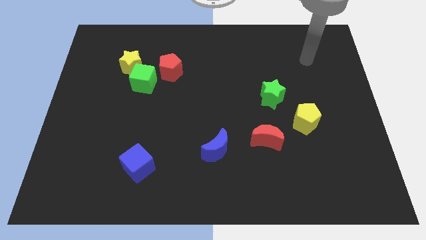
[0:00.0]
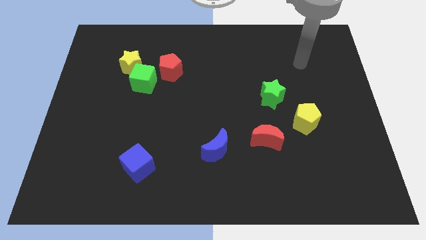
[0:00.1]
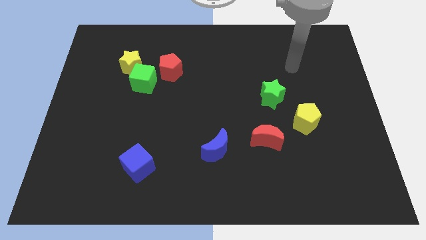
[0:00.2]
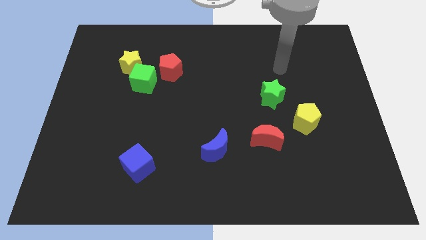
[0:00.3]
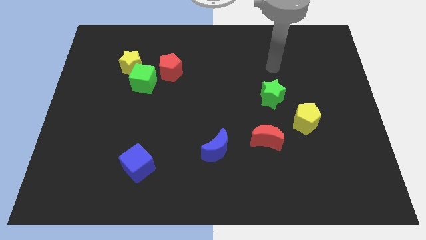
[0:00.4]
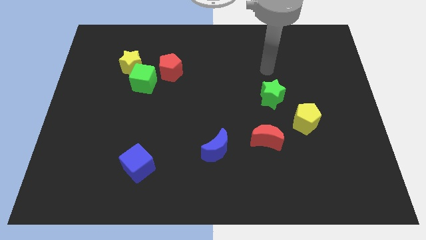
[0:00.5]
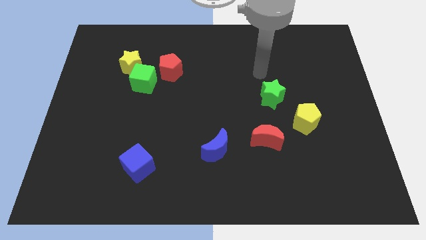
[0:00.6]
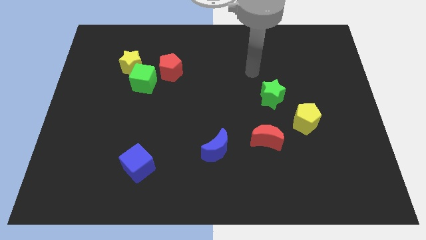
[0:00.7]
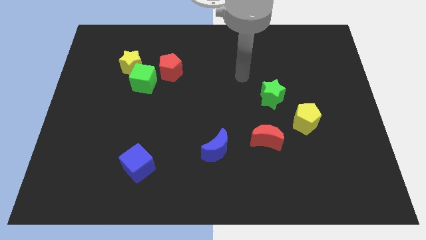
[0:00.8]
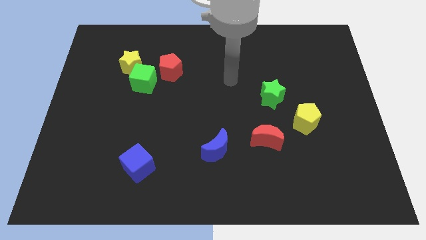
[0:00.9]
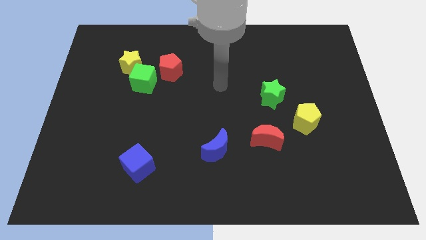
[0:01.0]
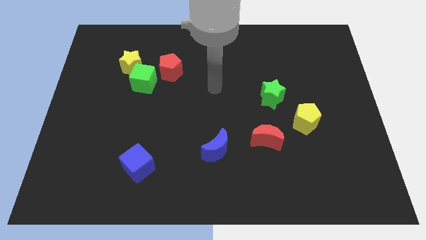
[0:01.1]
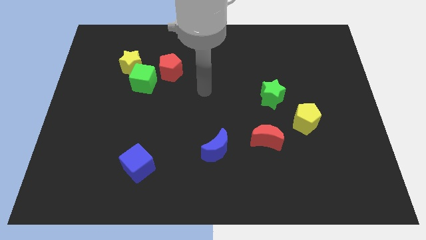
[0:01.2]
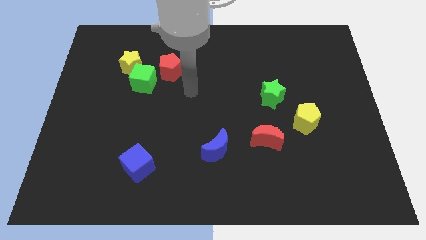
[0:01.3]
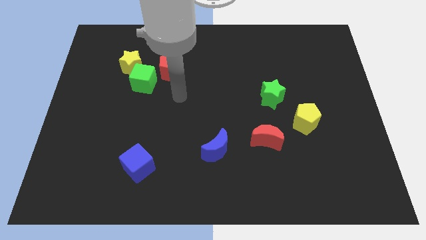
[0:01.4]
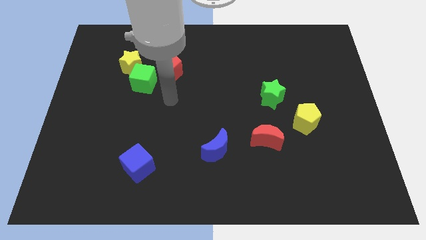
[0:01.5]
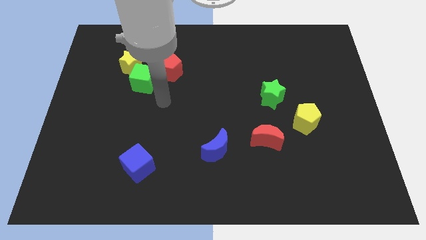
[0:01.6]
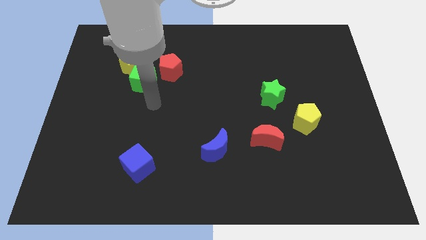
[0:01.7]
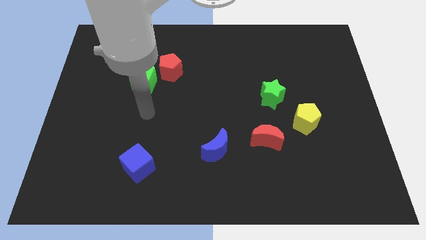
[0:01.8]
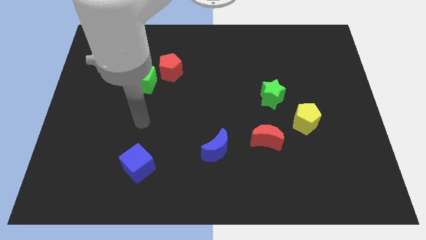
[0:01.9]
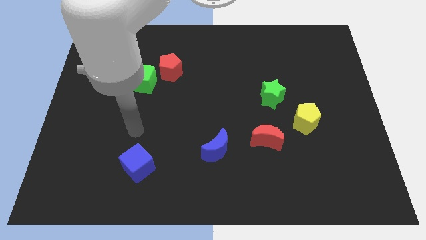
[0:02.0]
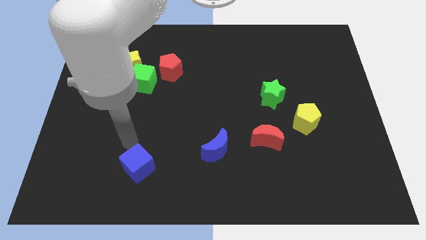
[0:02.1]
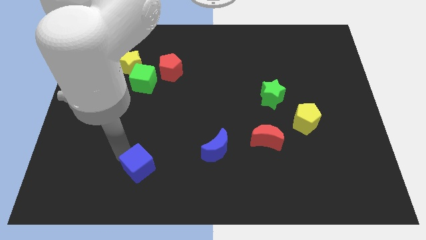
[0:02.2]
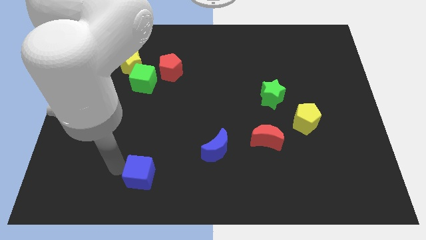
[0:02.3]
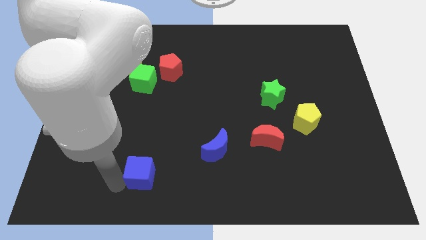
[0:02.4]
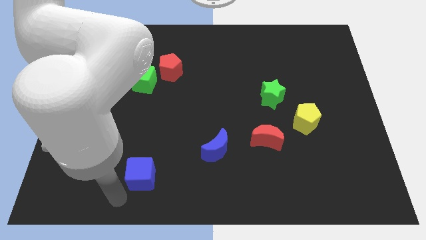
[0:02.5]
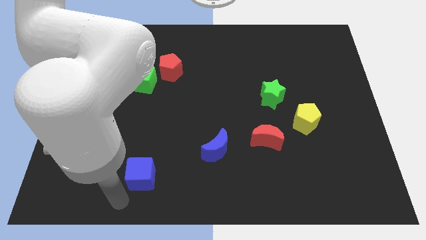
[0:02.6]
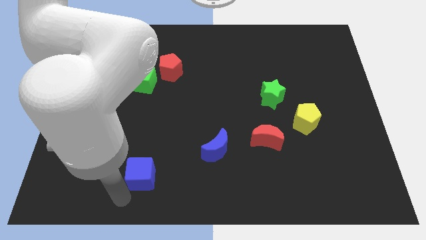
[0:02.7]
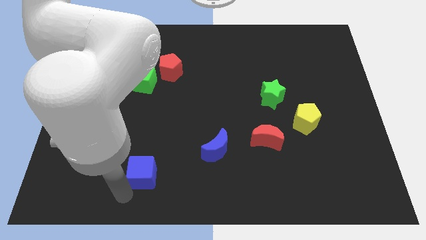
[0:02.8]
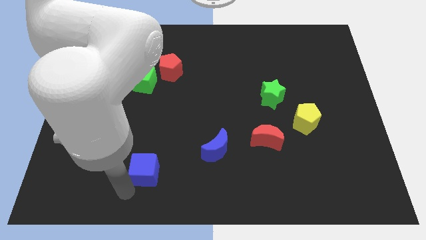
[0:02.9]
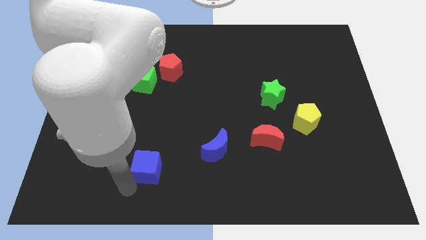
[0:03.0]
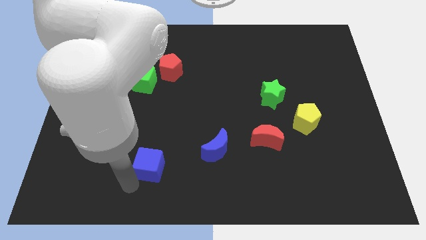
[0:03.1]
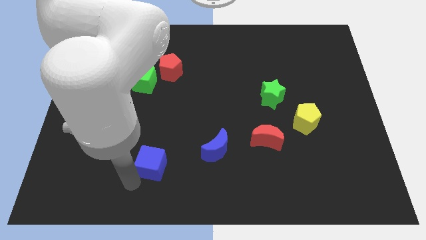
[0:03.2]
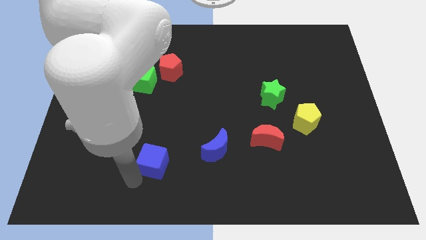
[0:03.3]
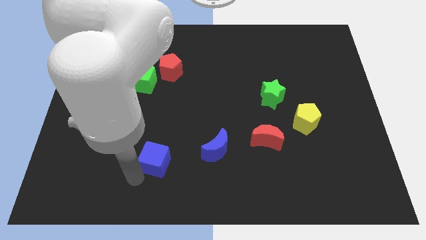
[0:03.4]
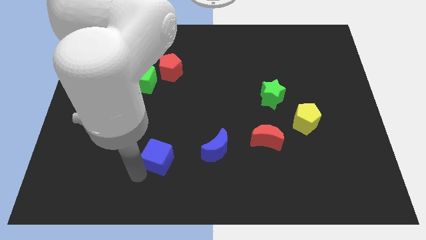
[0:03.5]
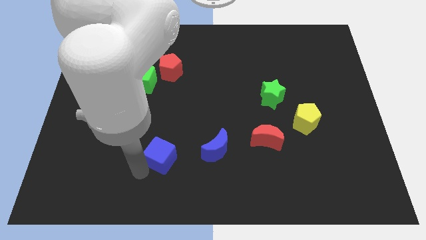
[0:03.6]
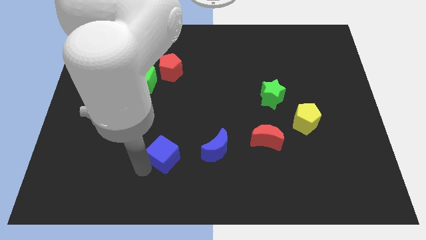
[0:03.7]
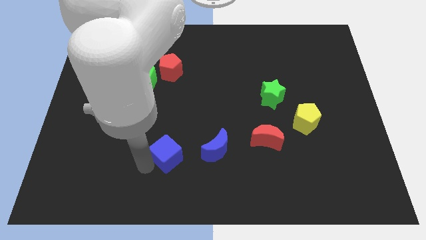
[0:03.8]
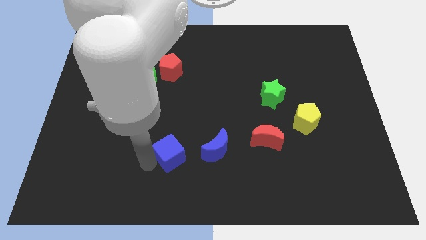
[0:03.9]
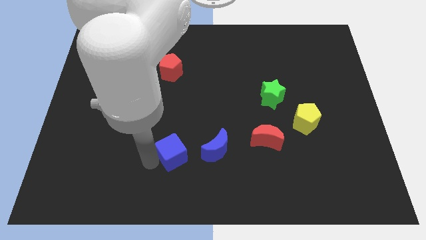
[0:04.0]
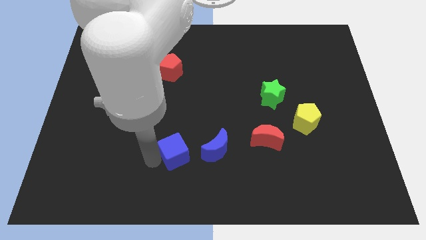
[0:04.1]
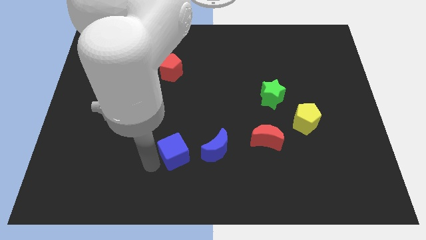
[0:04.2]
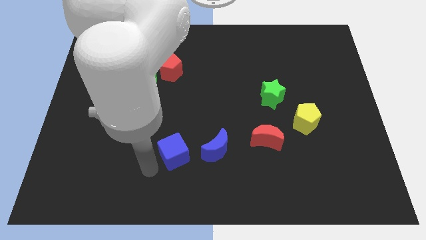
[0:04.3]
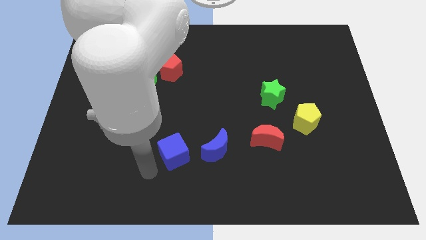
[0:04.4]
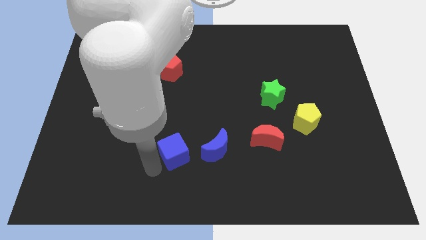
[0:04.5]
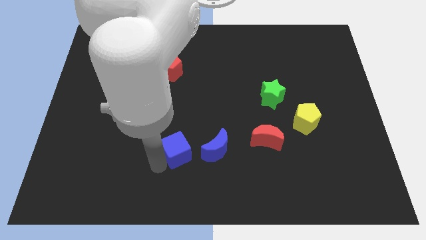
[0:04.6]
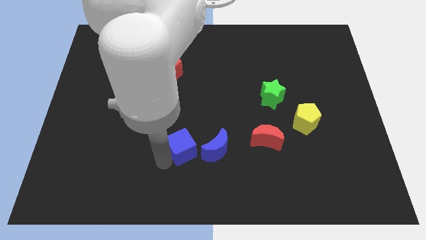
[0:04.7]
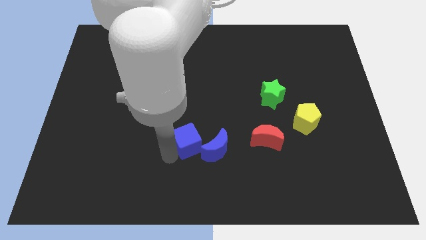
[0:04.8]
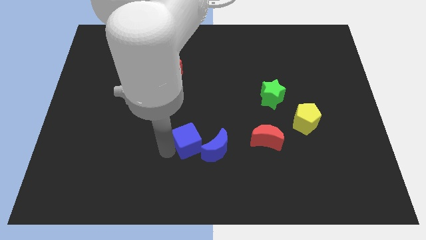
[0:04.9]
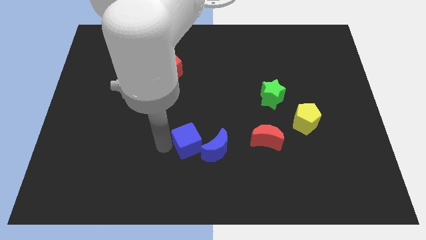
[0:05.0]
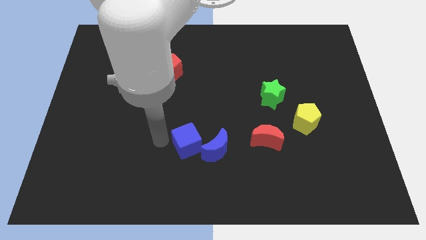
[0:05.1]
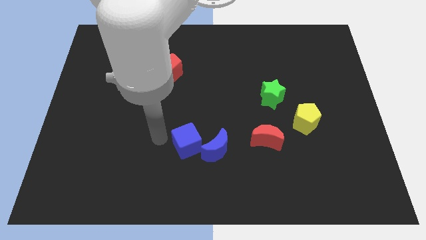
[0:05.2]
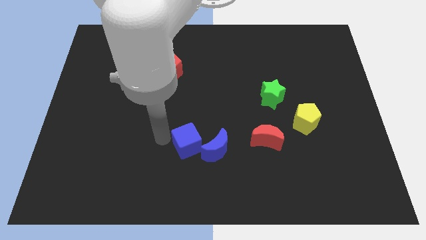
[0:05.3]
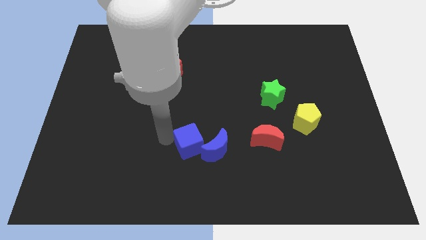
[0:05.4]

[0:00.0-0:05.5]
slide the blue cube to the blue moon

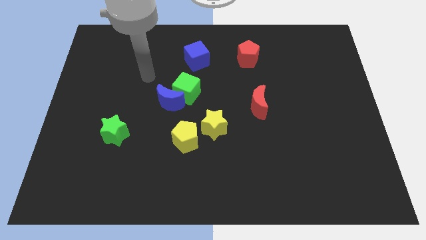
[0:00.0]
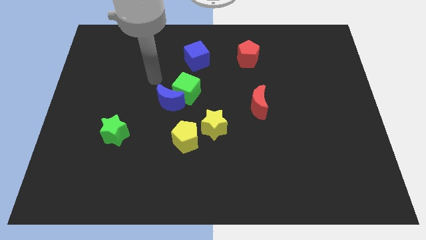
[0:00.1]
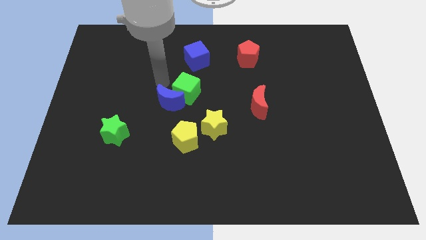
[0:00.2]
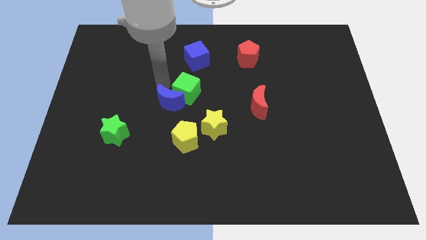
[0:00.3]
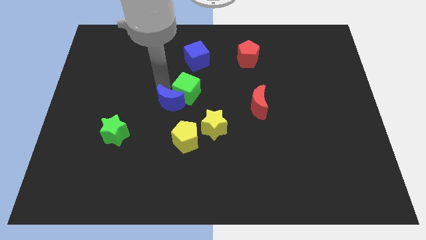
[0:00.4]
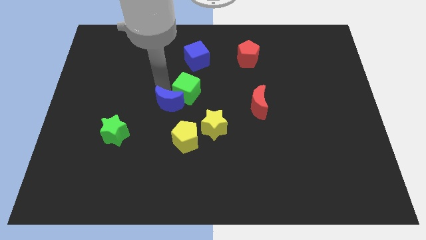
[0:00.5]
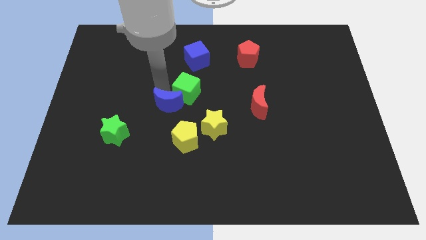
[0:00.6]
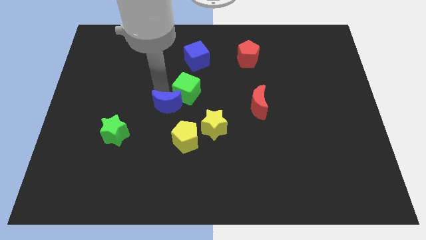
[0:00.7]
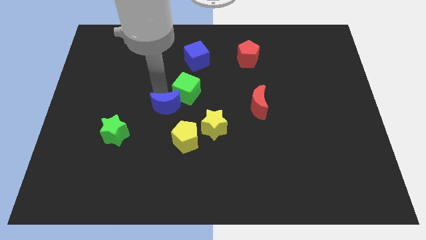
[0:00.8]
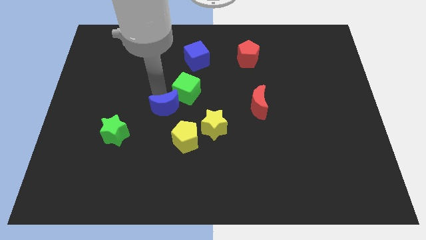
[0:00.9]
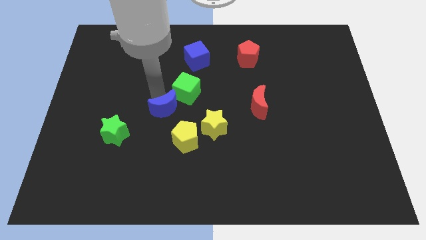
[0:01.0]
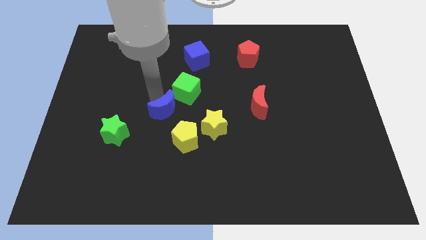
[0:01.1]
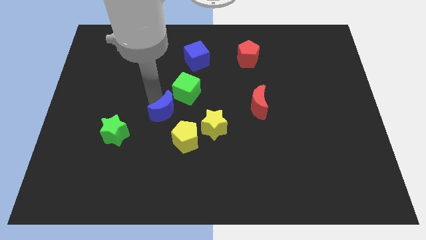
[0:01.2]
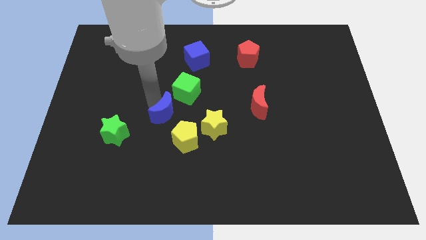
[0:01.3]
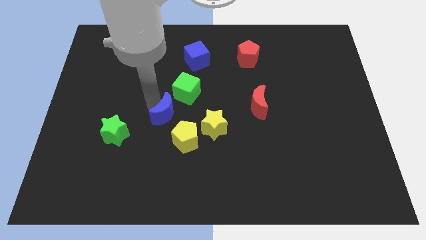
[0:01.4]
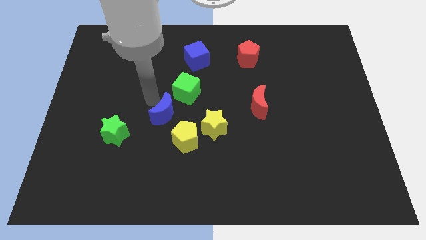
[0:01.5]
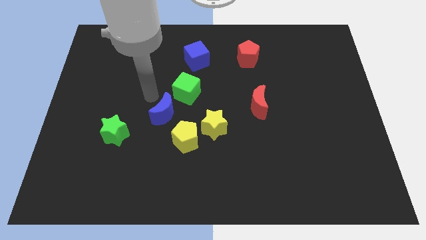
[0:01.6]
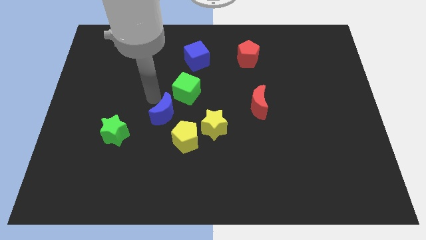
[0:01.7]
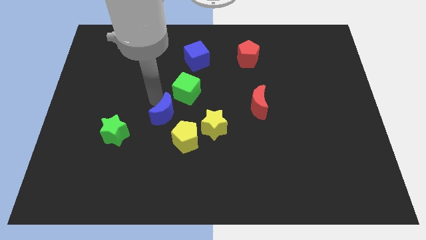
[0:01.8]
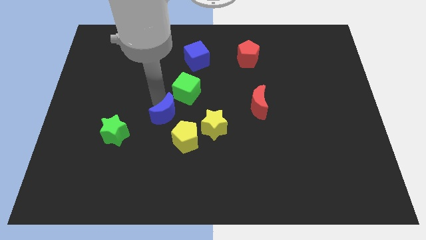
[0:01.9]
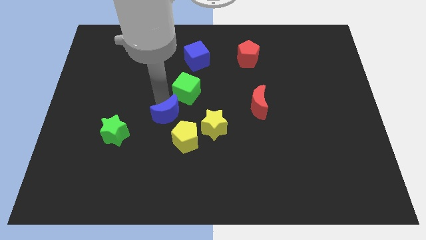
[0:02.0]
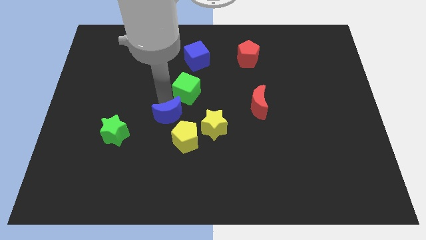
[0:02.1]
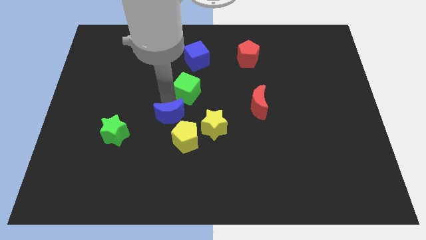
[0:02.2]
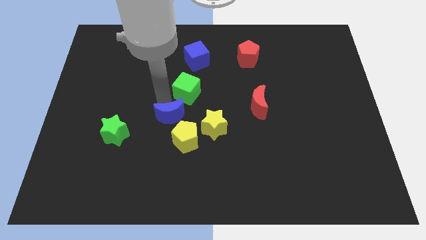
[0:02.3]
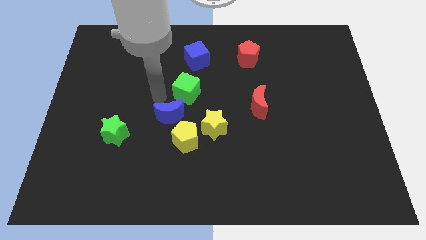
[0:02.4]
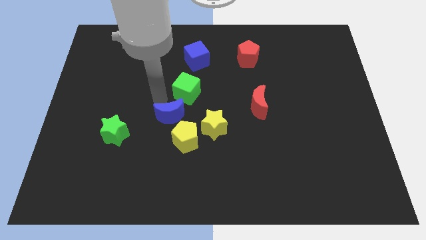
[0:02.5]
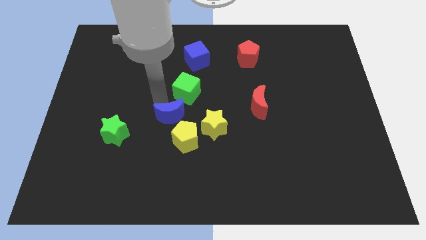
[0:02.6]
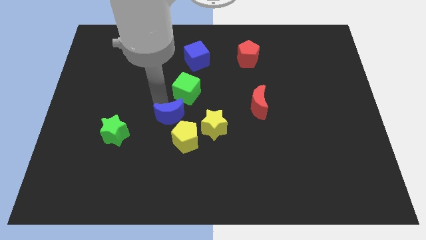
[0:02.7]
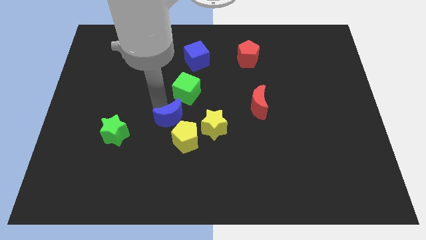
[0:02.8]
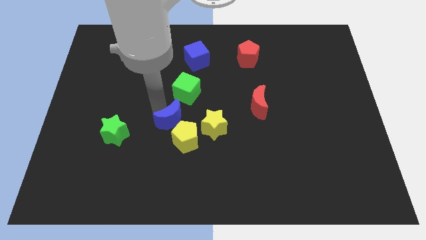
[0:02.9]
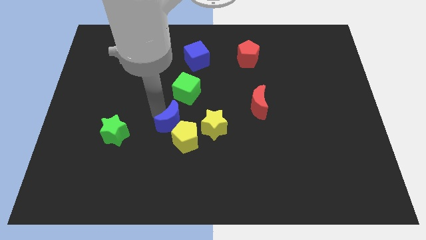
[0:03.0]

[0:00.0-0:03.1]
move the blue moon to the yellow pentagon
